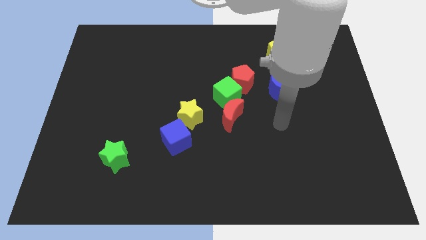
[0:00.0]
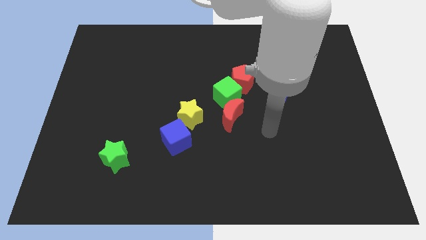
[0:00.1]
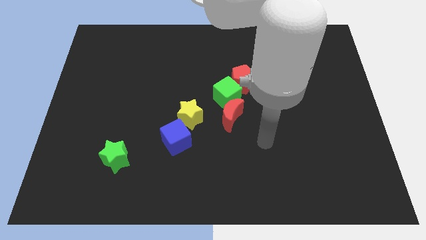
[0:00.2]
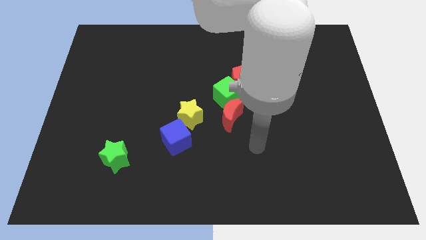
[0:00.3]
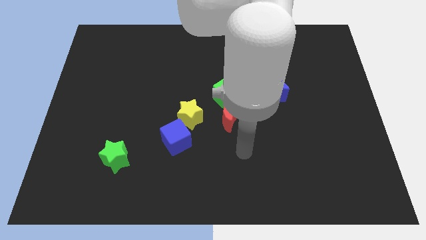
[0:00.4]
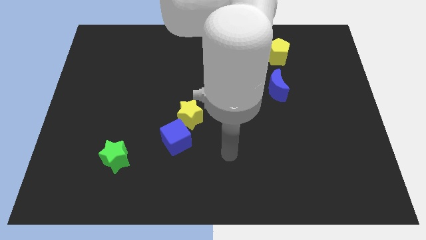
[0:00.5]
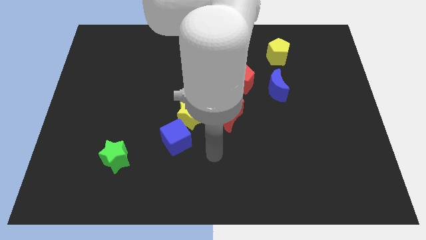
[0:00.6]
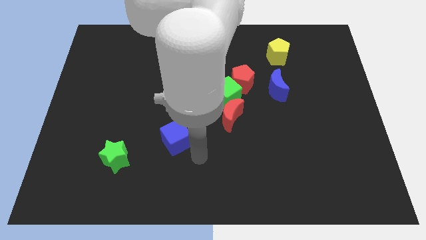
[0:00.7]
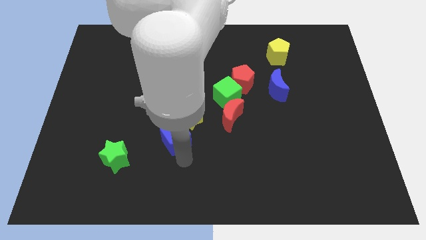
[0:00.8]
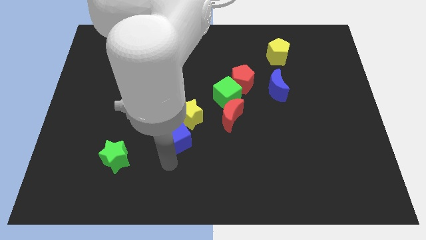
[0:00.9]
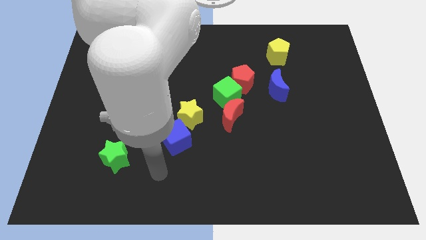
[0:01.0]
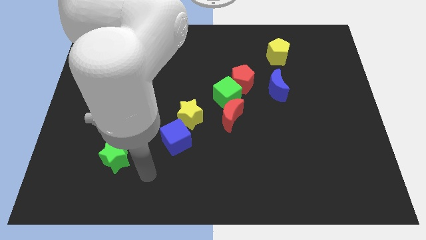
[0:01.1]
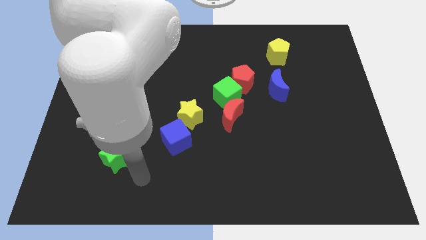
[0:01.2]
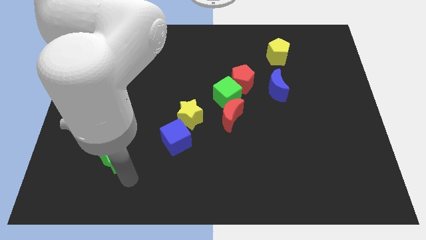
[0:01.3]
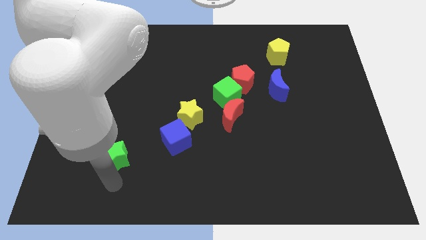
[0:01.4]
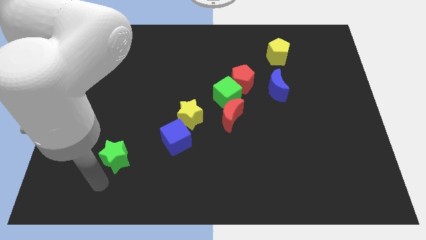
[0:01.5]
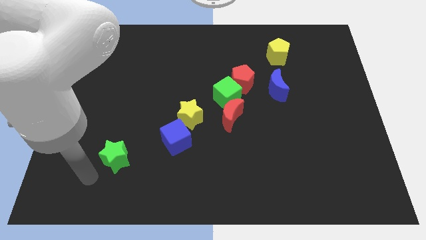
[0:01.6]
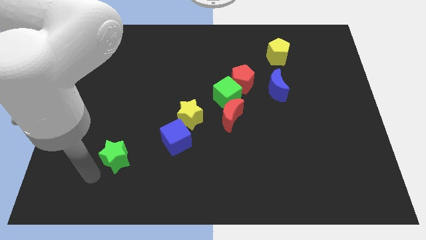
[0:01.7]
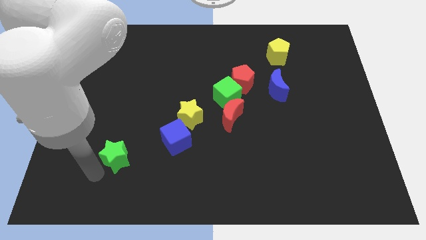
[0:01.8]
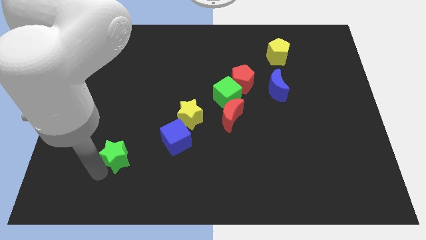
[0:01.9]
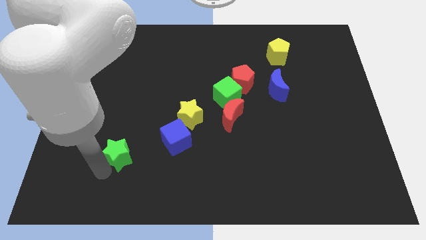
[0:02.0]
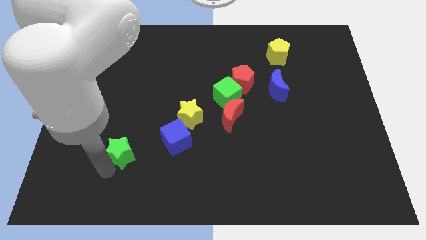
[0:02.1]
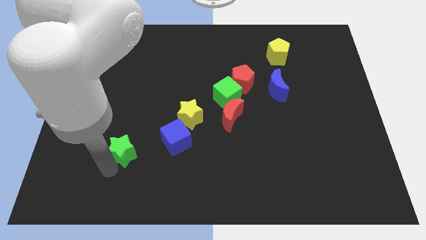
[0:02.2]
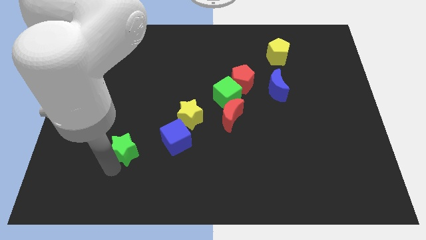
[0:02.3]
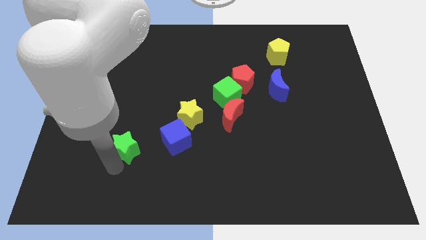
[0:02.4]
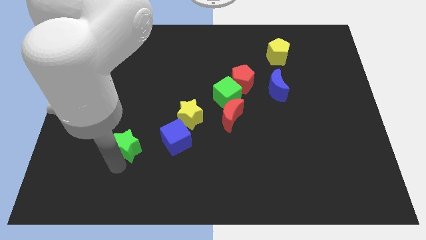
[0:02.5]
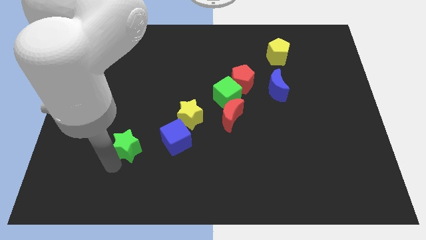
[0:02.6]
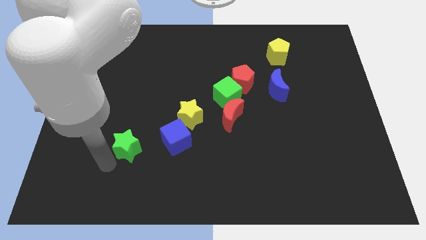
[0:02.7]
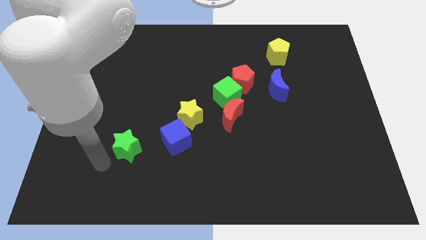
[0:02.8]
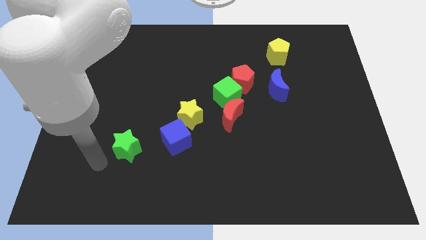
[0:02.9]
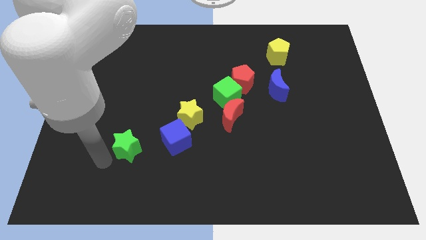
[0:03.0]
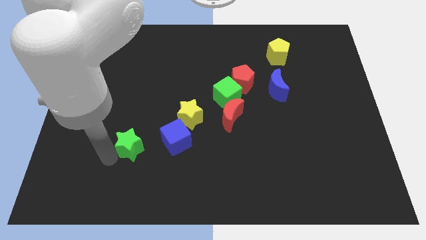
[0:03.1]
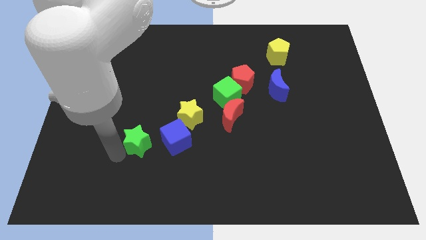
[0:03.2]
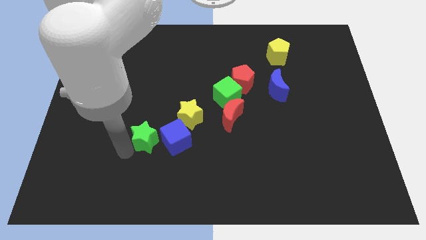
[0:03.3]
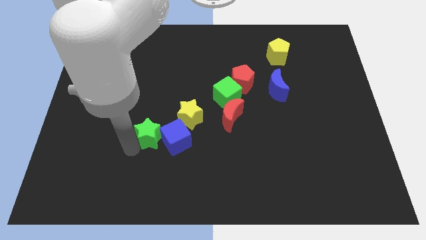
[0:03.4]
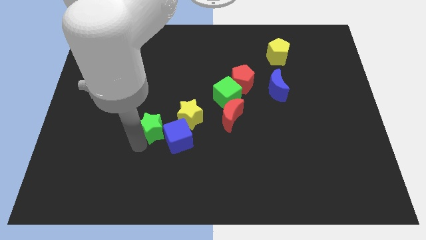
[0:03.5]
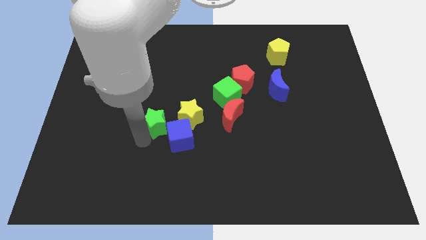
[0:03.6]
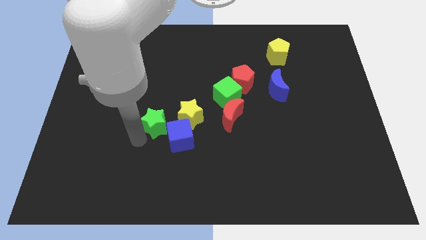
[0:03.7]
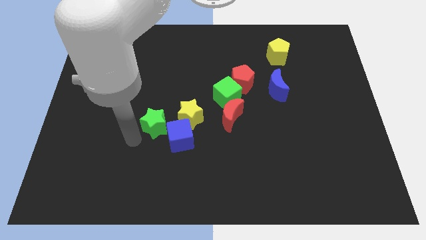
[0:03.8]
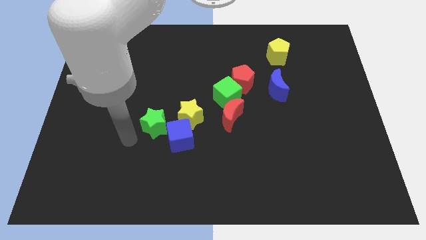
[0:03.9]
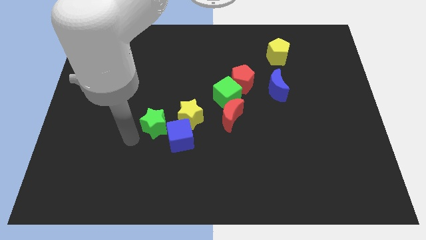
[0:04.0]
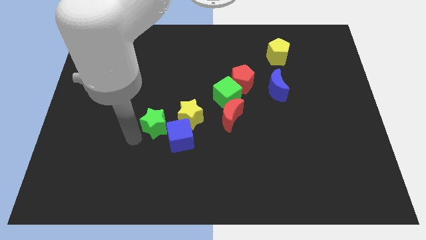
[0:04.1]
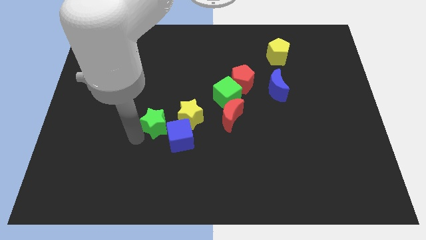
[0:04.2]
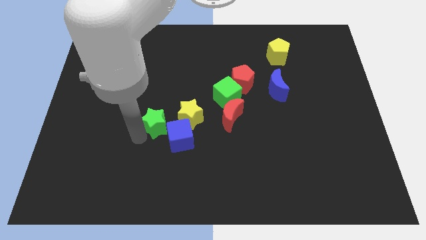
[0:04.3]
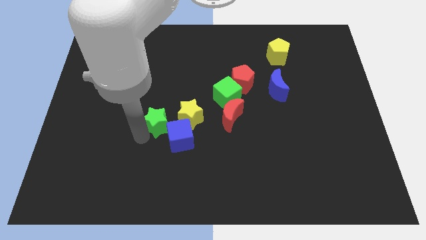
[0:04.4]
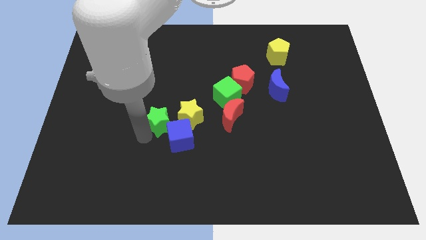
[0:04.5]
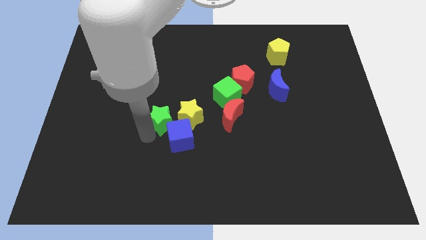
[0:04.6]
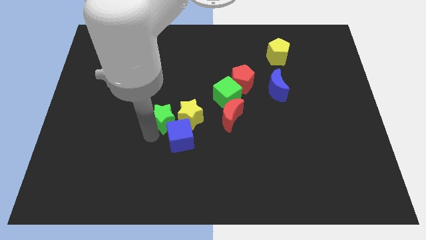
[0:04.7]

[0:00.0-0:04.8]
push the green star towards the yellow star

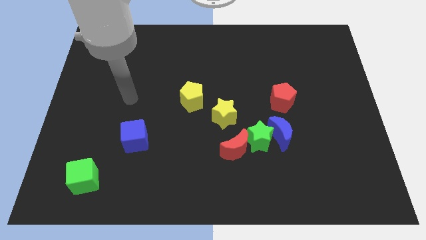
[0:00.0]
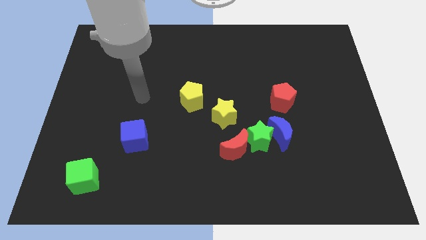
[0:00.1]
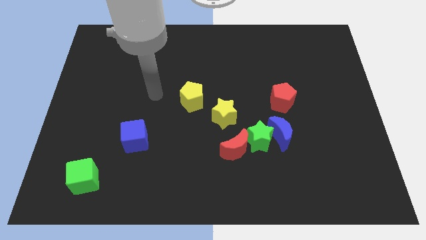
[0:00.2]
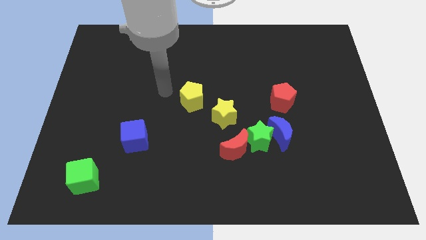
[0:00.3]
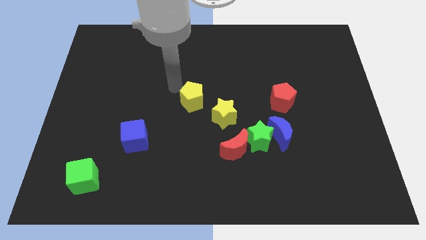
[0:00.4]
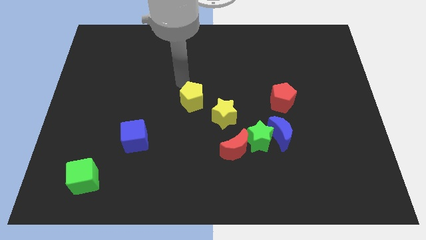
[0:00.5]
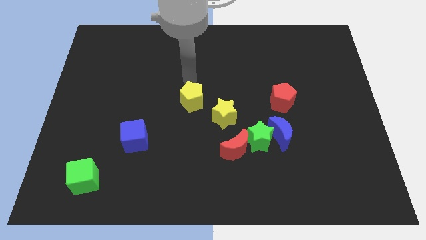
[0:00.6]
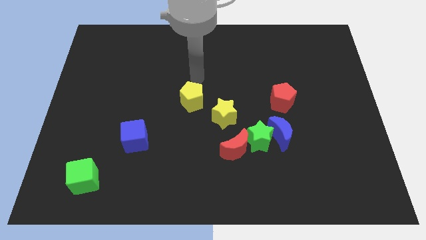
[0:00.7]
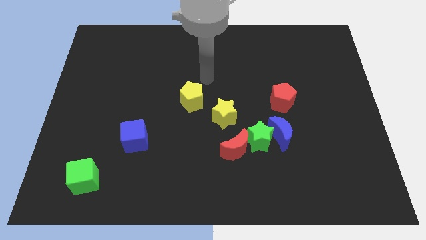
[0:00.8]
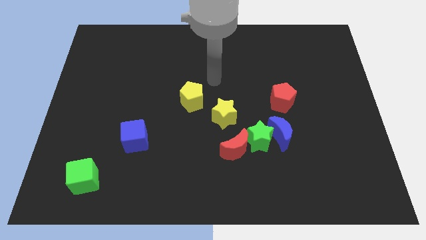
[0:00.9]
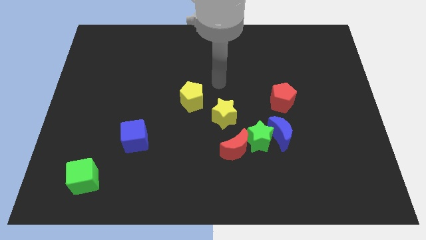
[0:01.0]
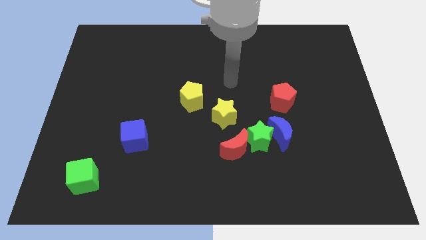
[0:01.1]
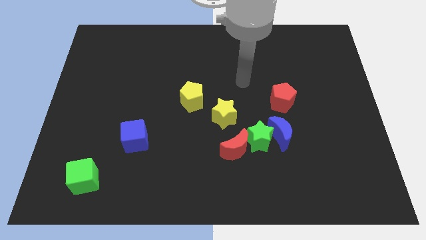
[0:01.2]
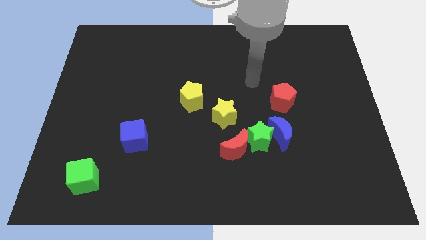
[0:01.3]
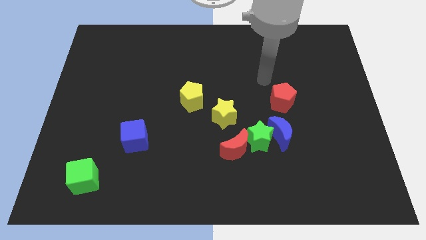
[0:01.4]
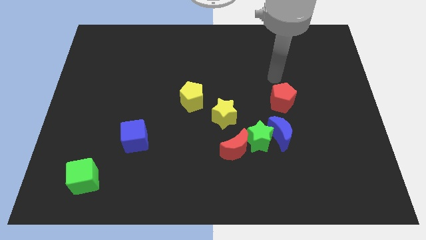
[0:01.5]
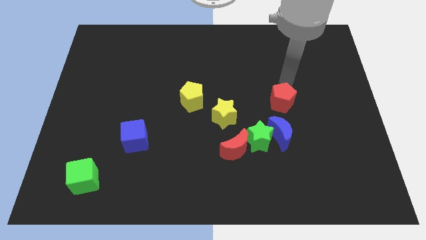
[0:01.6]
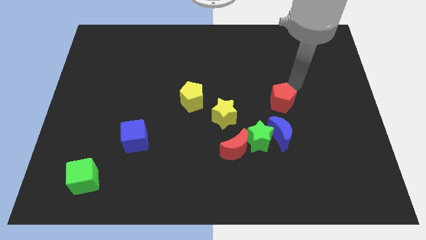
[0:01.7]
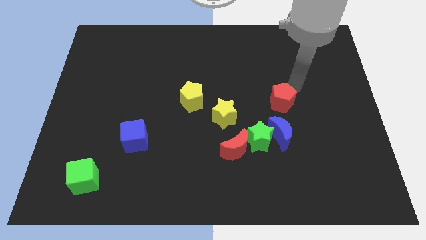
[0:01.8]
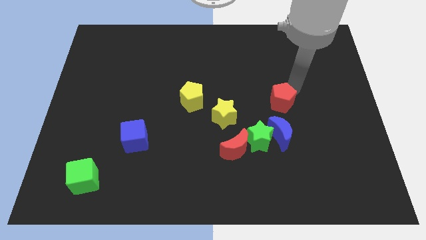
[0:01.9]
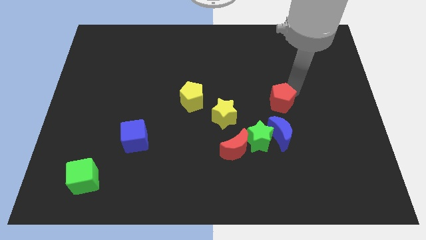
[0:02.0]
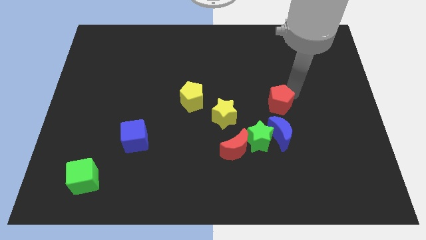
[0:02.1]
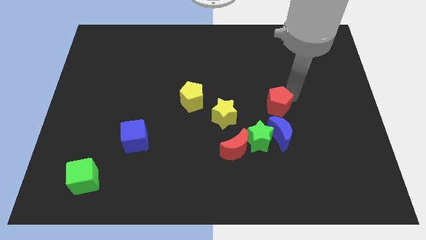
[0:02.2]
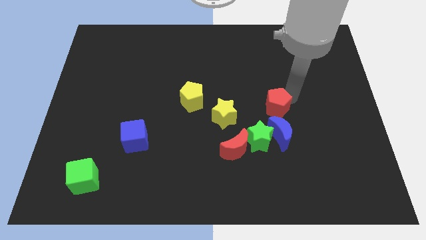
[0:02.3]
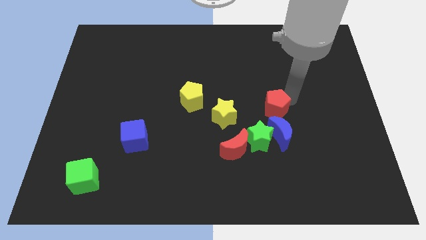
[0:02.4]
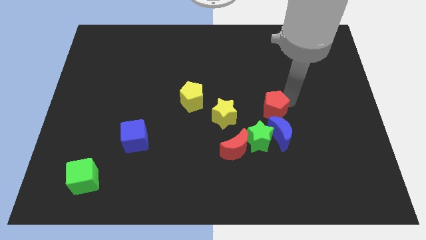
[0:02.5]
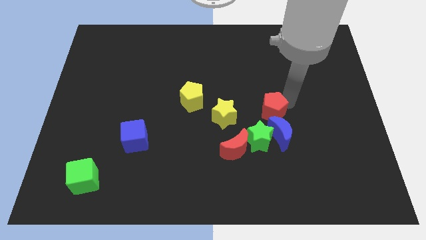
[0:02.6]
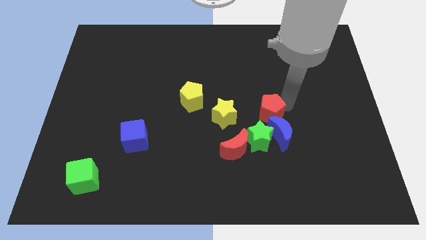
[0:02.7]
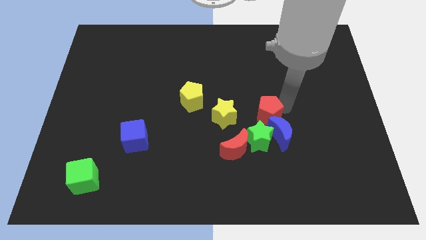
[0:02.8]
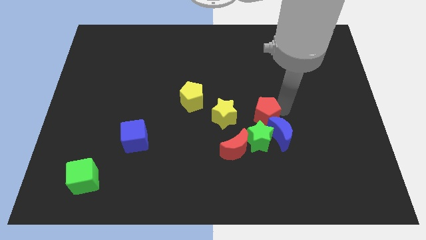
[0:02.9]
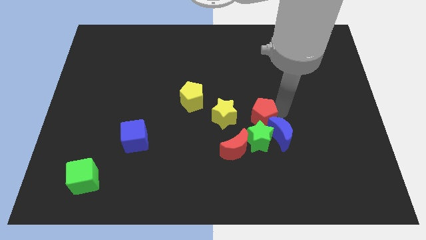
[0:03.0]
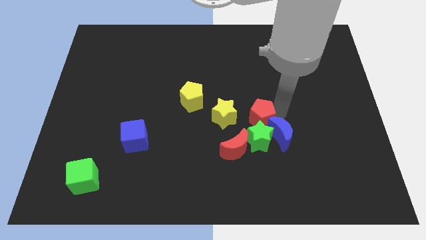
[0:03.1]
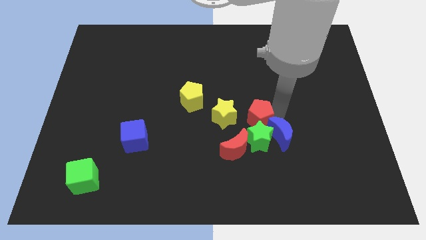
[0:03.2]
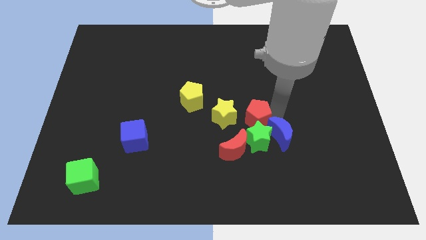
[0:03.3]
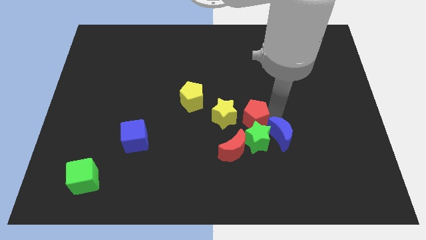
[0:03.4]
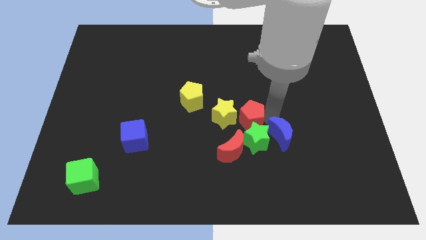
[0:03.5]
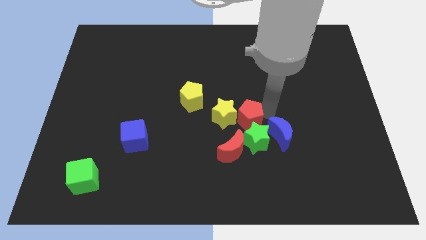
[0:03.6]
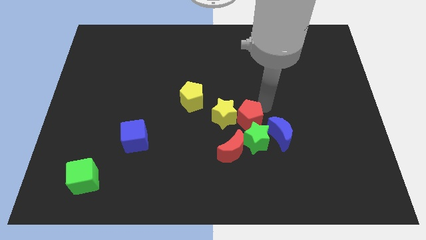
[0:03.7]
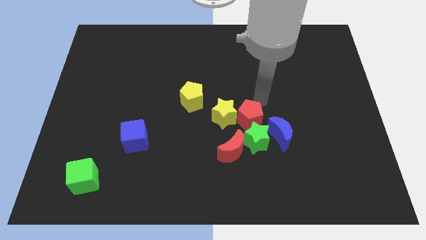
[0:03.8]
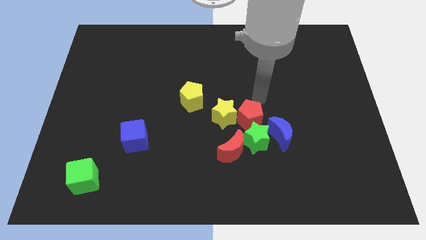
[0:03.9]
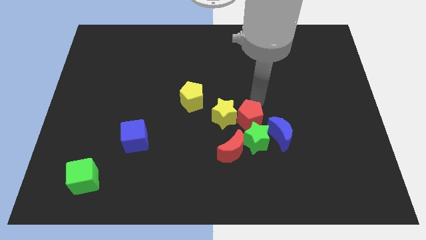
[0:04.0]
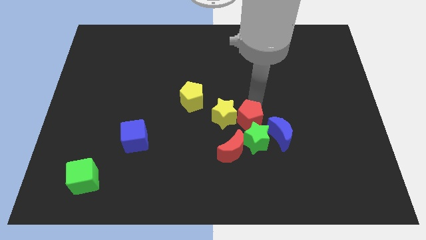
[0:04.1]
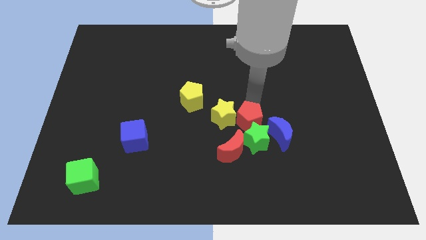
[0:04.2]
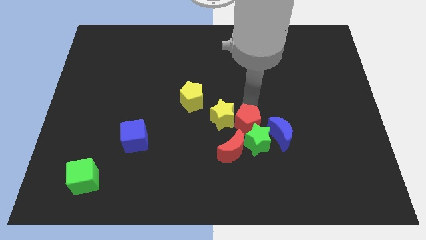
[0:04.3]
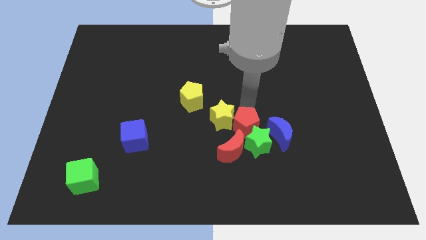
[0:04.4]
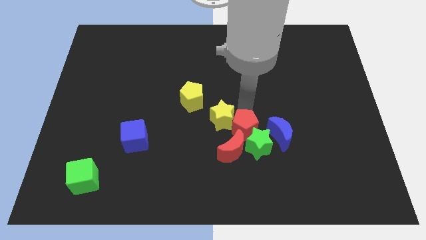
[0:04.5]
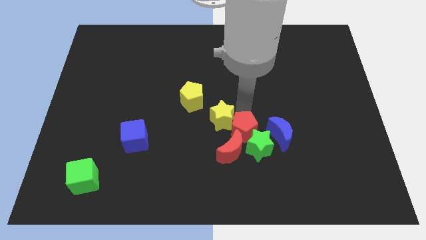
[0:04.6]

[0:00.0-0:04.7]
put the red pentagon towards the red moon
